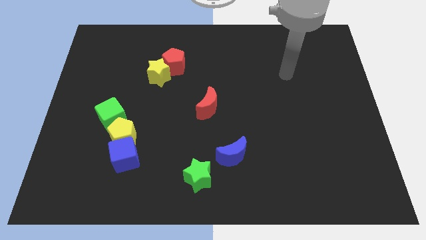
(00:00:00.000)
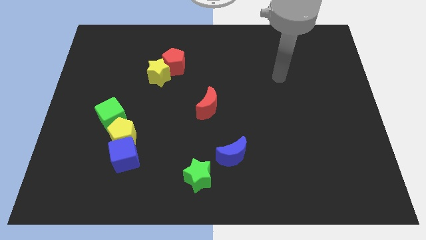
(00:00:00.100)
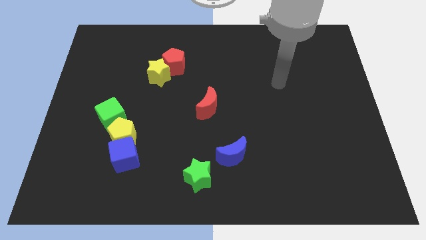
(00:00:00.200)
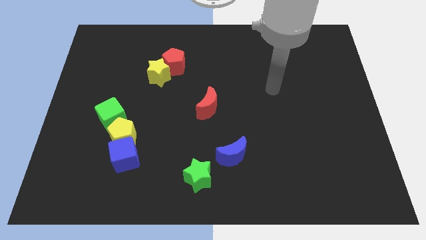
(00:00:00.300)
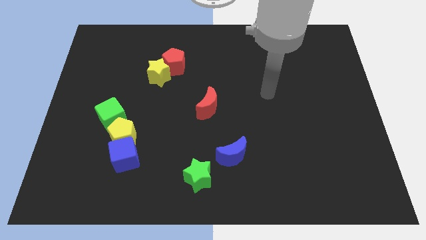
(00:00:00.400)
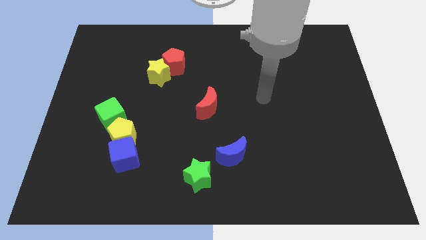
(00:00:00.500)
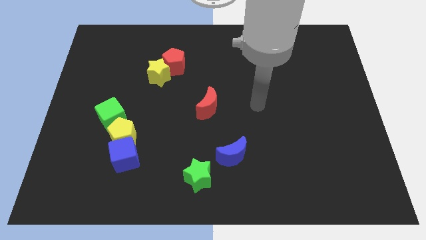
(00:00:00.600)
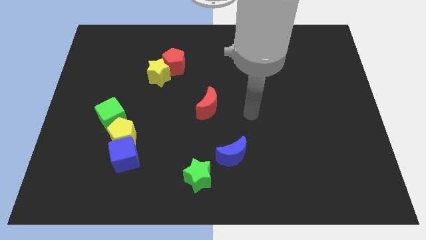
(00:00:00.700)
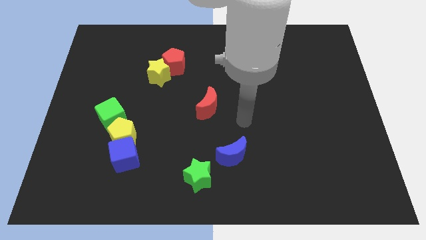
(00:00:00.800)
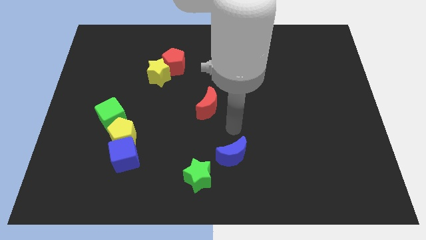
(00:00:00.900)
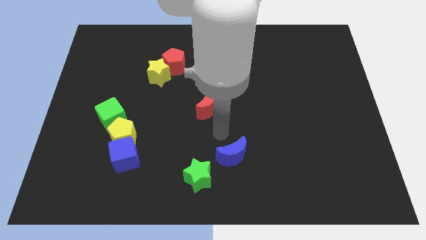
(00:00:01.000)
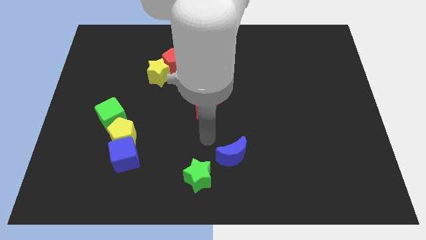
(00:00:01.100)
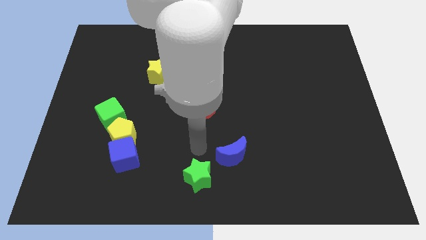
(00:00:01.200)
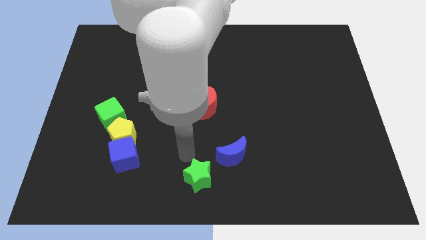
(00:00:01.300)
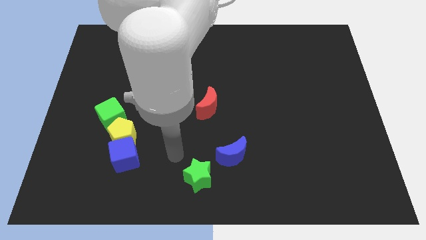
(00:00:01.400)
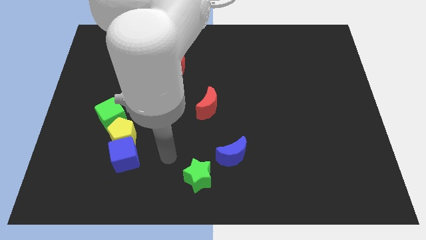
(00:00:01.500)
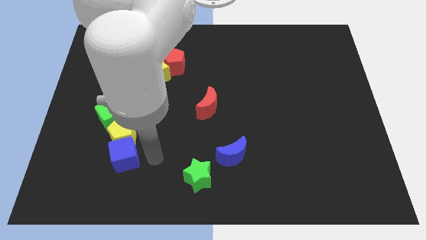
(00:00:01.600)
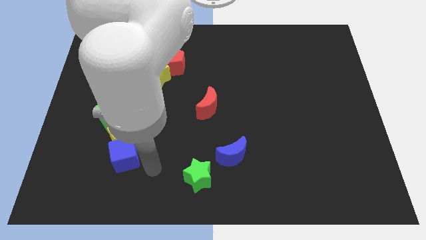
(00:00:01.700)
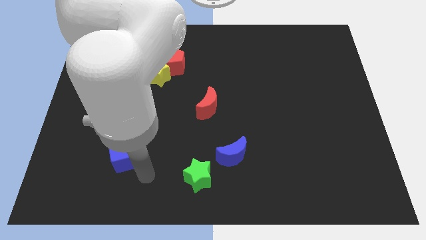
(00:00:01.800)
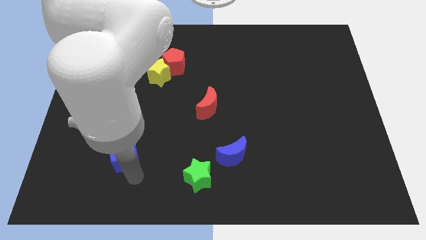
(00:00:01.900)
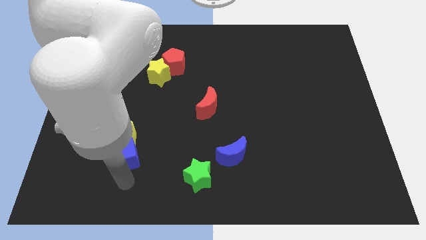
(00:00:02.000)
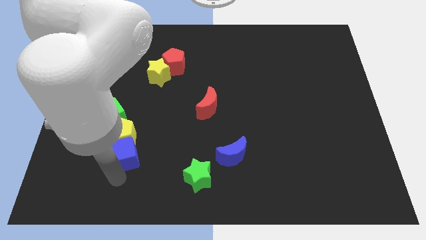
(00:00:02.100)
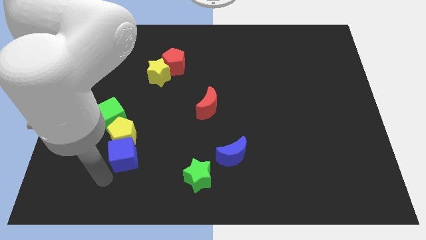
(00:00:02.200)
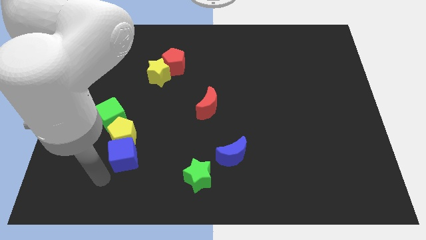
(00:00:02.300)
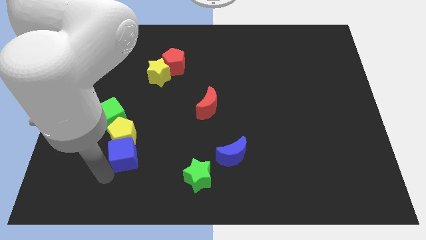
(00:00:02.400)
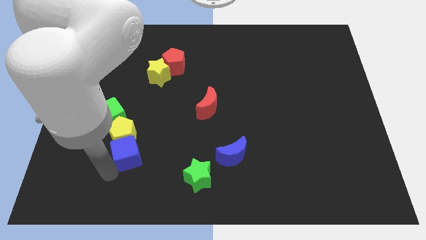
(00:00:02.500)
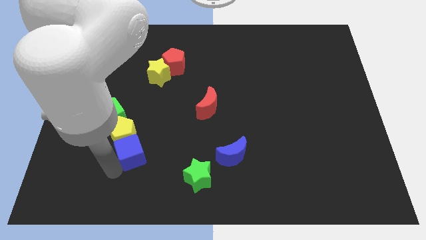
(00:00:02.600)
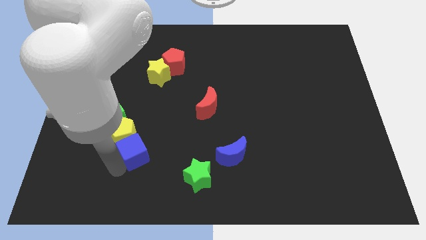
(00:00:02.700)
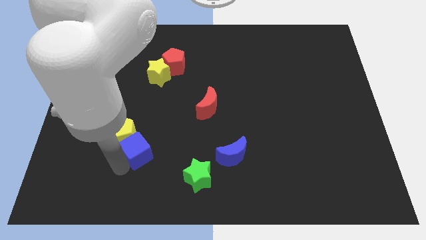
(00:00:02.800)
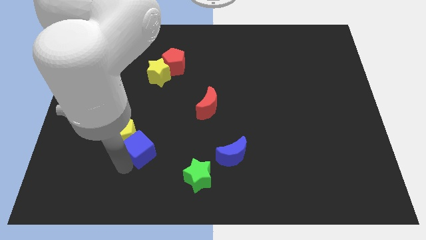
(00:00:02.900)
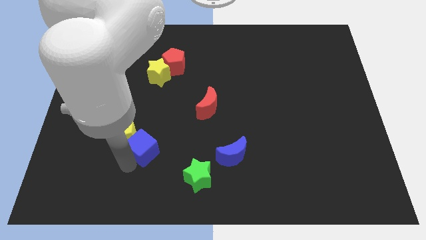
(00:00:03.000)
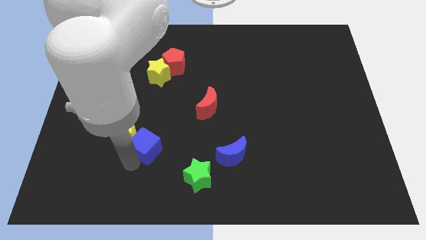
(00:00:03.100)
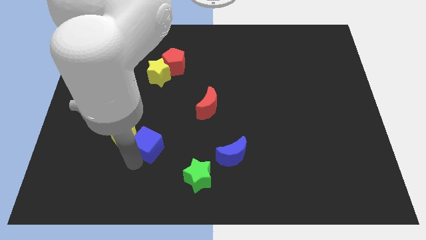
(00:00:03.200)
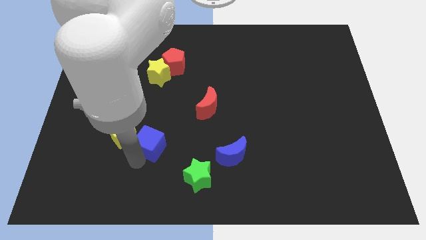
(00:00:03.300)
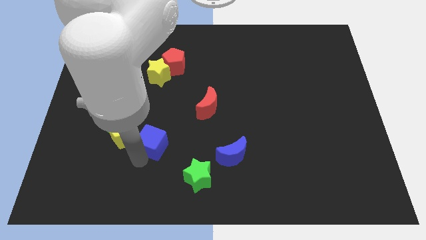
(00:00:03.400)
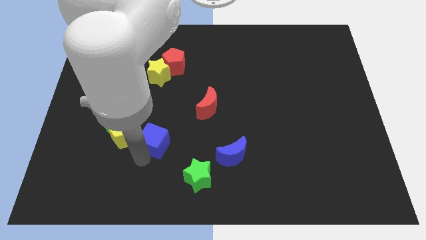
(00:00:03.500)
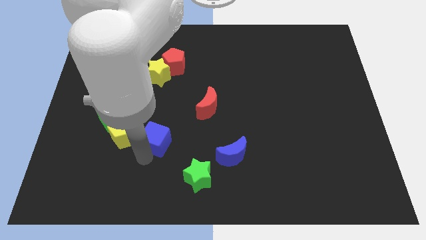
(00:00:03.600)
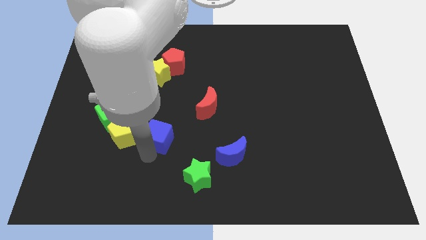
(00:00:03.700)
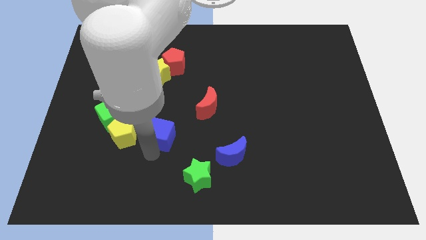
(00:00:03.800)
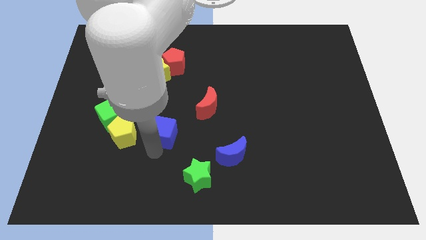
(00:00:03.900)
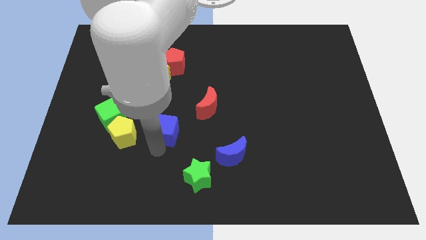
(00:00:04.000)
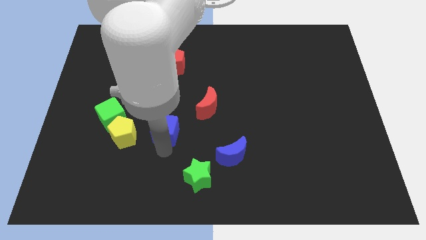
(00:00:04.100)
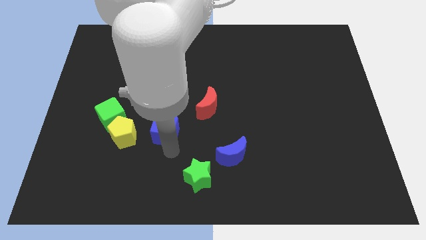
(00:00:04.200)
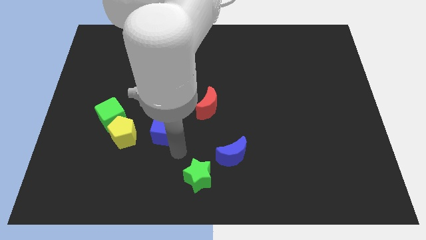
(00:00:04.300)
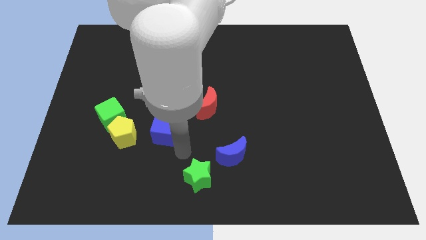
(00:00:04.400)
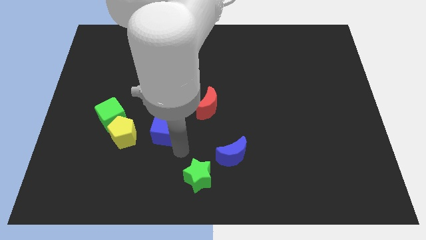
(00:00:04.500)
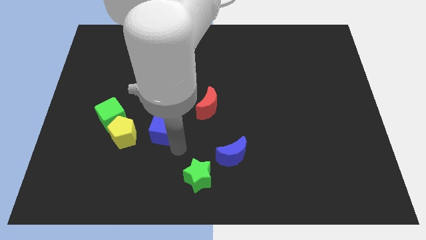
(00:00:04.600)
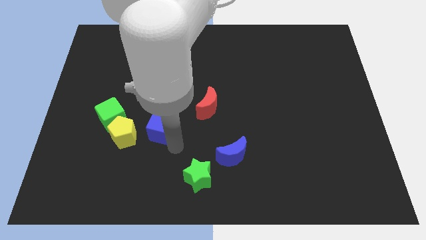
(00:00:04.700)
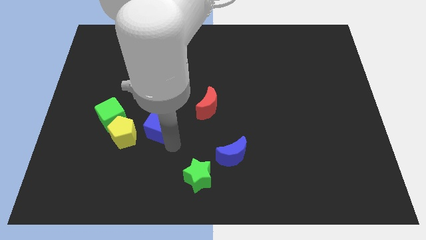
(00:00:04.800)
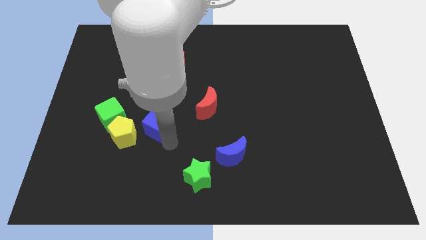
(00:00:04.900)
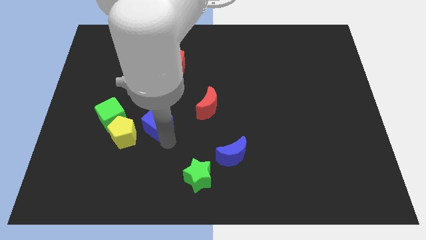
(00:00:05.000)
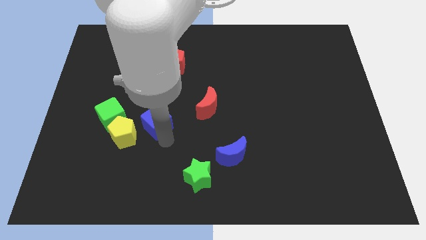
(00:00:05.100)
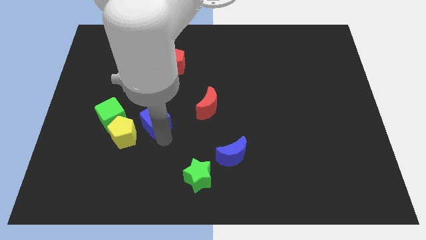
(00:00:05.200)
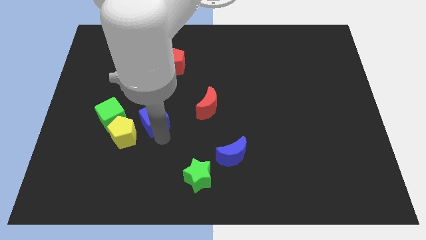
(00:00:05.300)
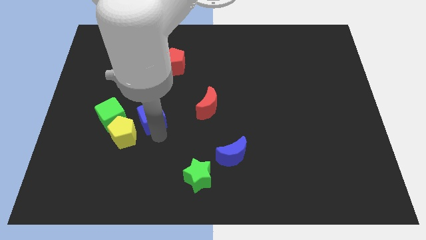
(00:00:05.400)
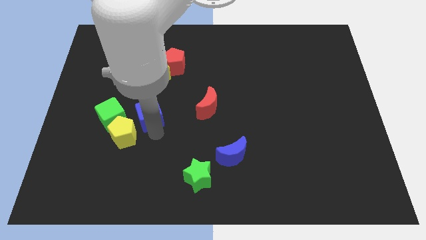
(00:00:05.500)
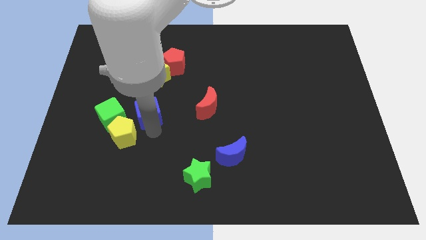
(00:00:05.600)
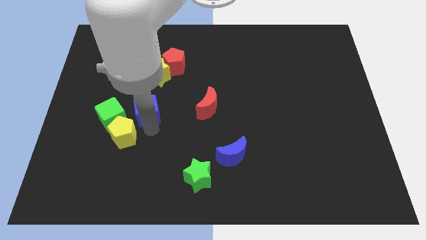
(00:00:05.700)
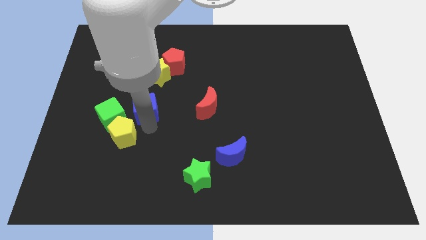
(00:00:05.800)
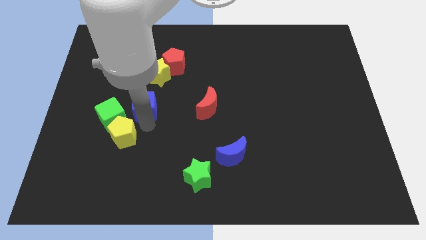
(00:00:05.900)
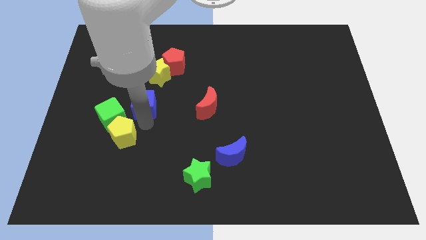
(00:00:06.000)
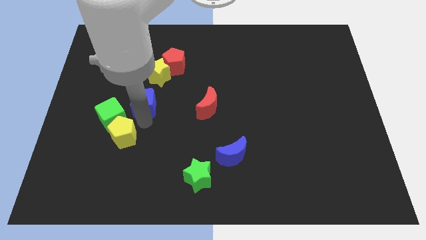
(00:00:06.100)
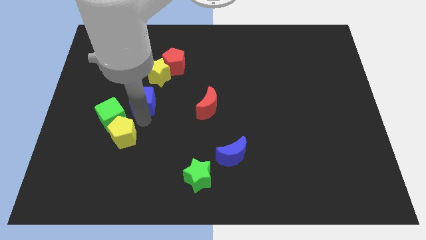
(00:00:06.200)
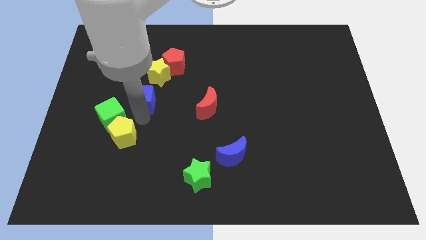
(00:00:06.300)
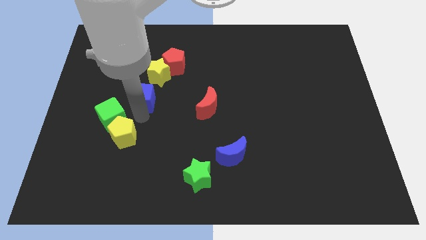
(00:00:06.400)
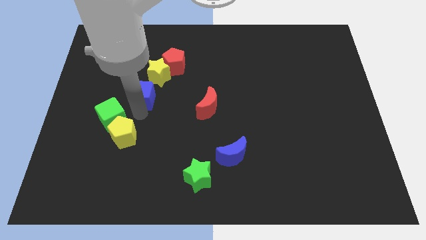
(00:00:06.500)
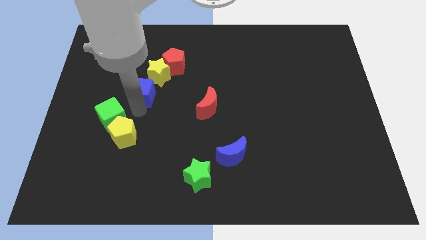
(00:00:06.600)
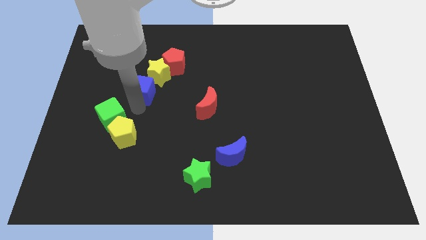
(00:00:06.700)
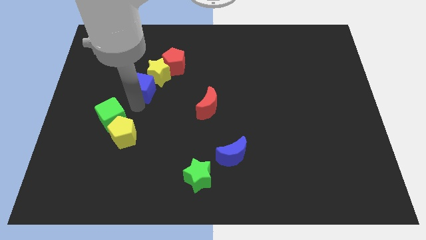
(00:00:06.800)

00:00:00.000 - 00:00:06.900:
slide the blue cube next to the yellow star
